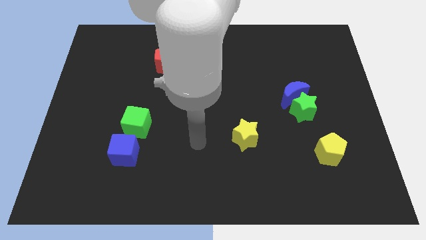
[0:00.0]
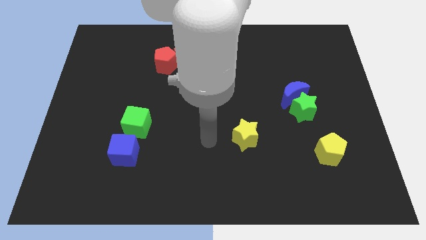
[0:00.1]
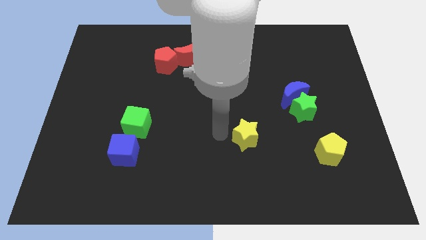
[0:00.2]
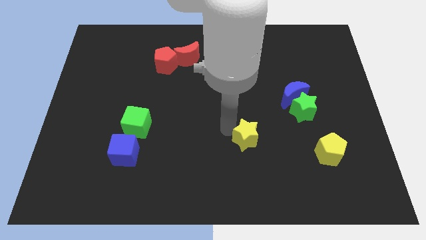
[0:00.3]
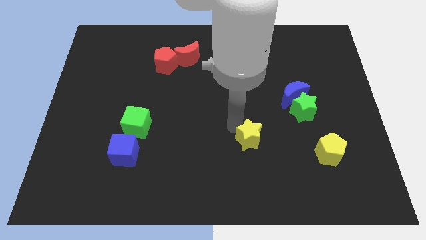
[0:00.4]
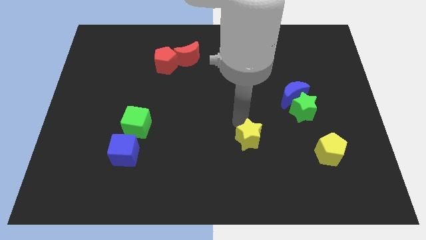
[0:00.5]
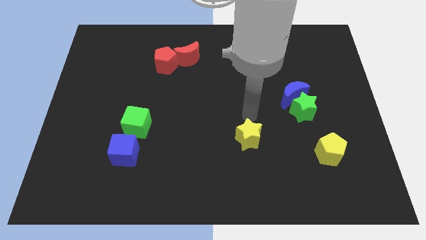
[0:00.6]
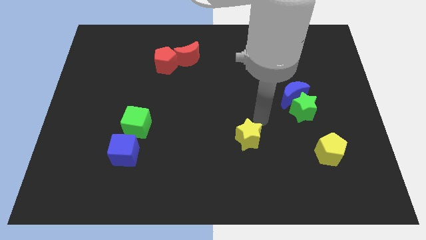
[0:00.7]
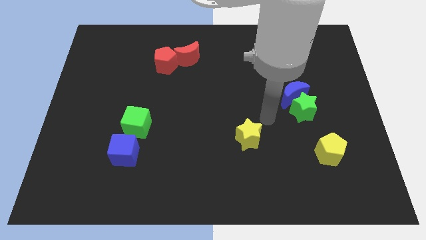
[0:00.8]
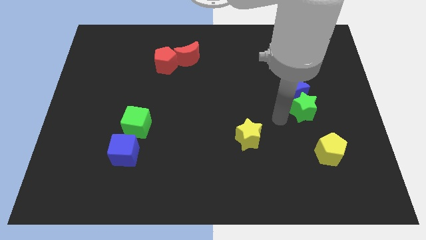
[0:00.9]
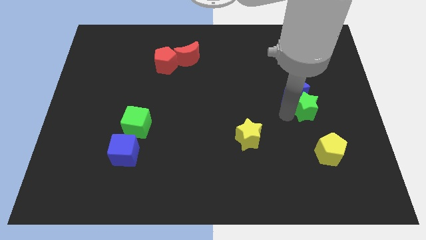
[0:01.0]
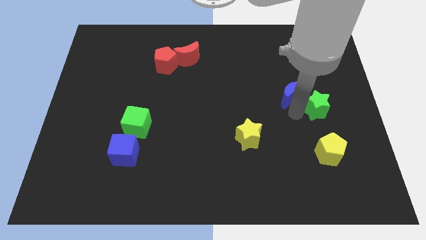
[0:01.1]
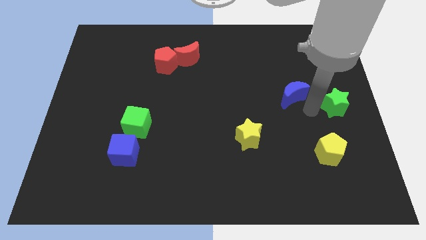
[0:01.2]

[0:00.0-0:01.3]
separate the blue moon from the green star

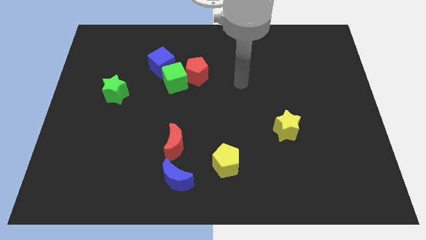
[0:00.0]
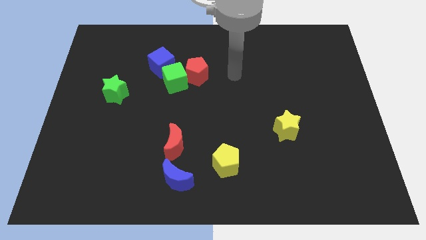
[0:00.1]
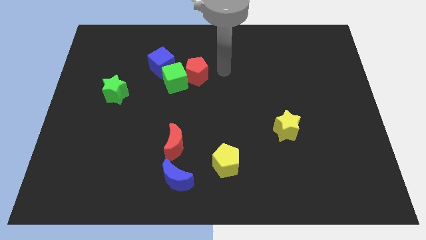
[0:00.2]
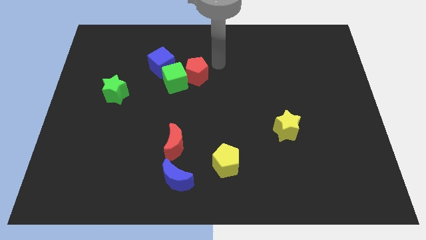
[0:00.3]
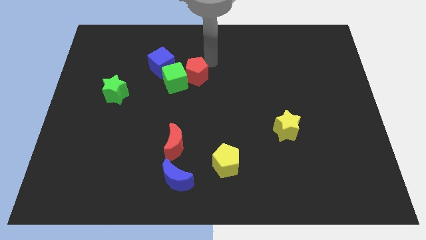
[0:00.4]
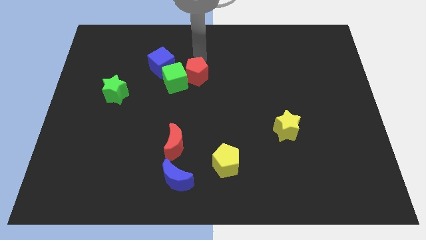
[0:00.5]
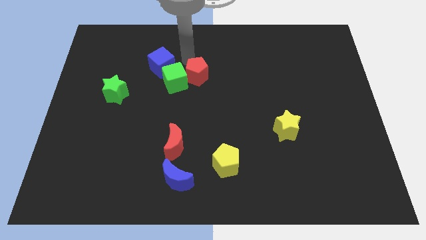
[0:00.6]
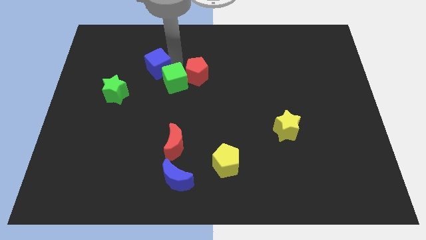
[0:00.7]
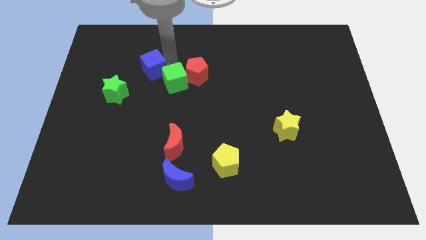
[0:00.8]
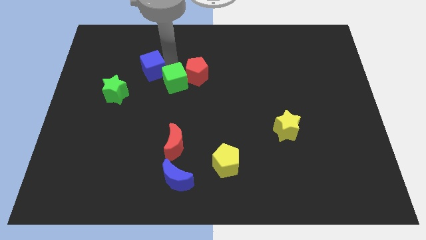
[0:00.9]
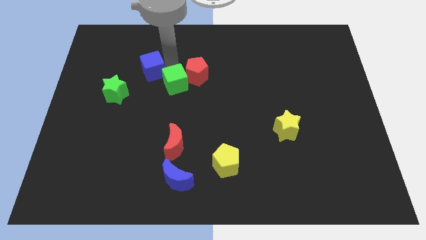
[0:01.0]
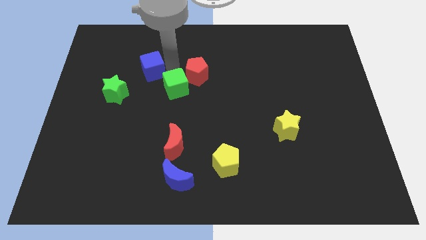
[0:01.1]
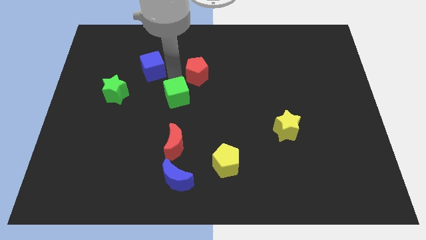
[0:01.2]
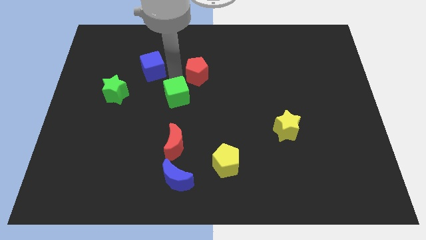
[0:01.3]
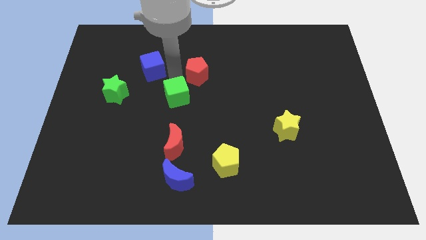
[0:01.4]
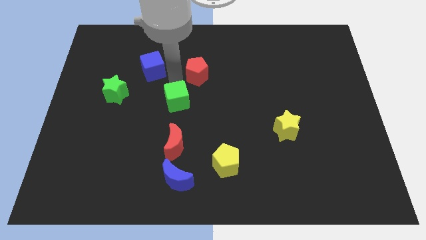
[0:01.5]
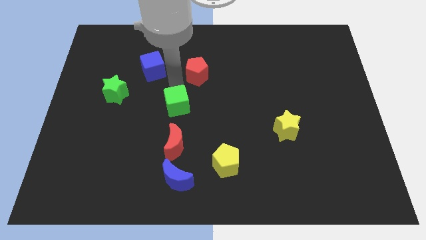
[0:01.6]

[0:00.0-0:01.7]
separate the green cube from the red pentagon and blue cube

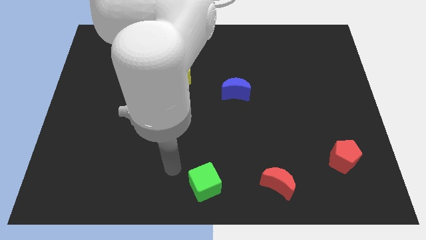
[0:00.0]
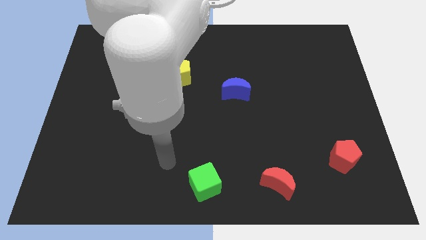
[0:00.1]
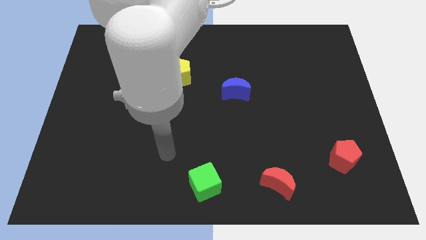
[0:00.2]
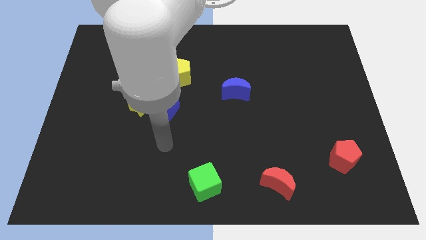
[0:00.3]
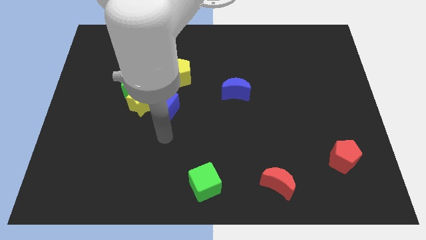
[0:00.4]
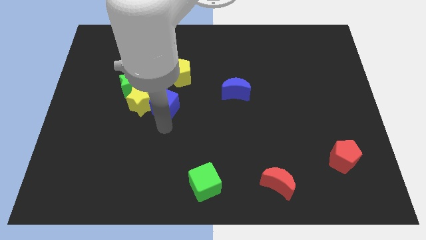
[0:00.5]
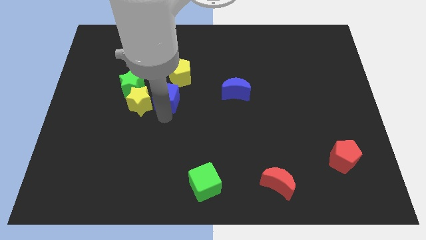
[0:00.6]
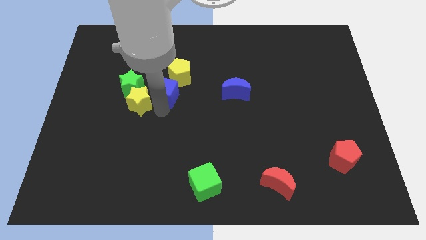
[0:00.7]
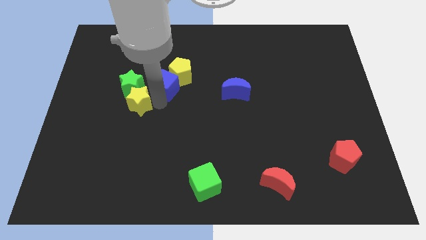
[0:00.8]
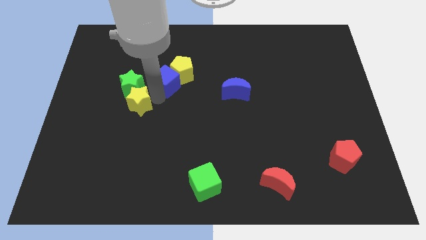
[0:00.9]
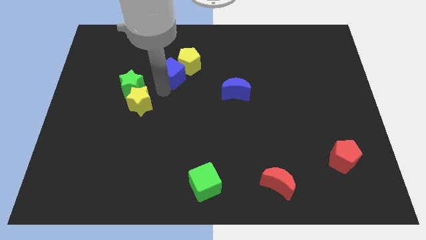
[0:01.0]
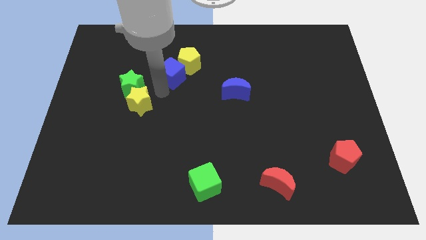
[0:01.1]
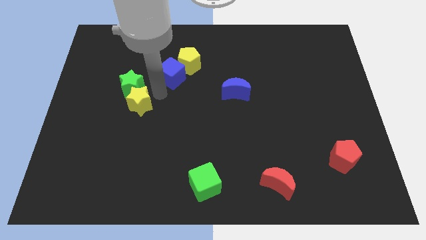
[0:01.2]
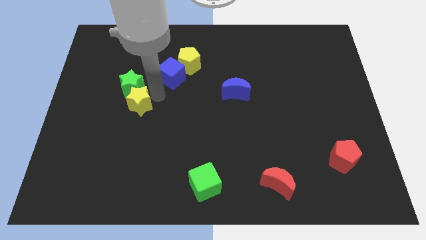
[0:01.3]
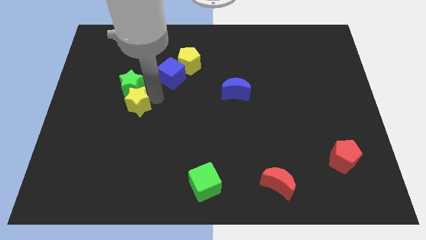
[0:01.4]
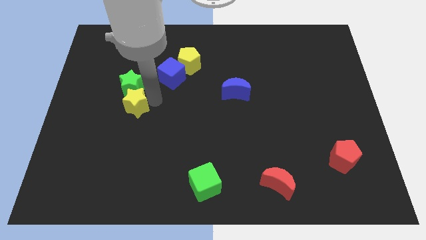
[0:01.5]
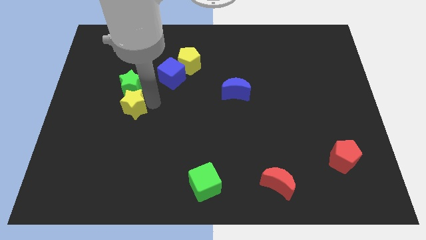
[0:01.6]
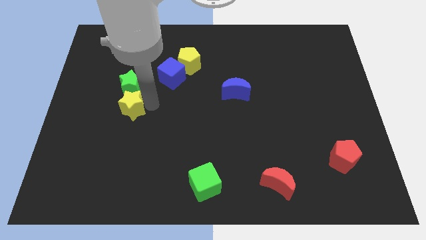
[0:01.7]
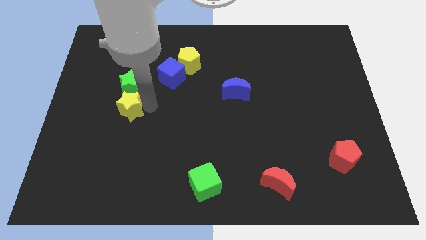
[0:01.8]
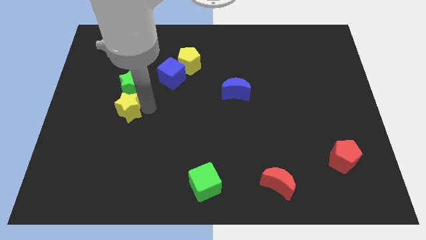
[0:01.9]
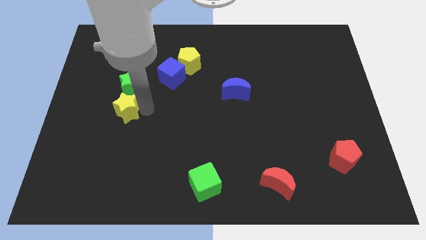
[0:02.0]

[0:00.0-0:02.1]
separate the yellow star from the green star and blue cube

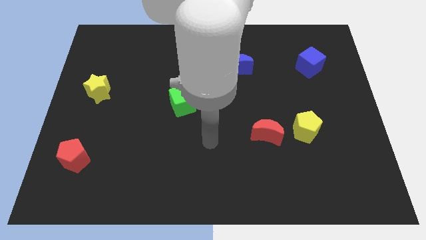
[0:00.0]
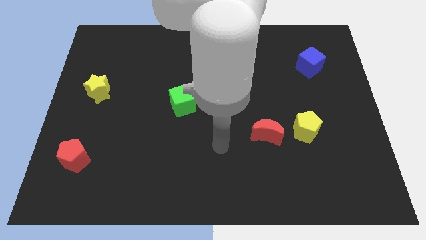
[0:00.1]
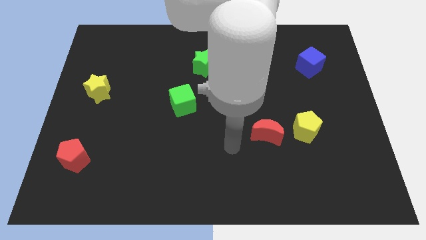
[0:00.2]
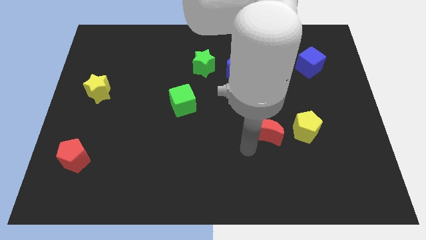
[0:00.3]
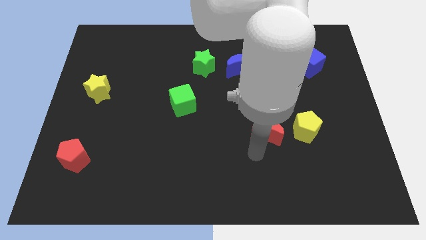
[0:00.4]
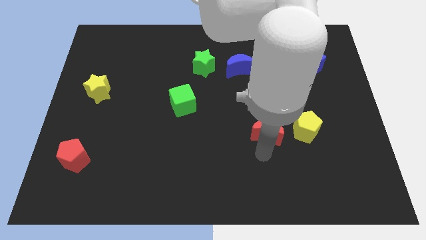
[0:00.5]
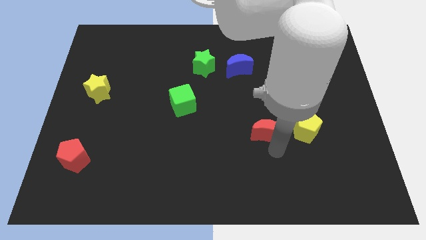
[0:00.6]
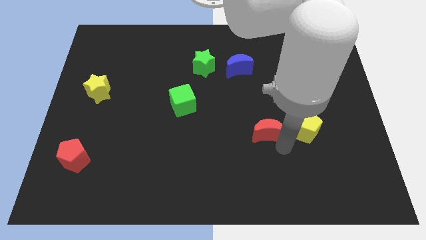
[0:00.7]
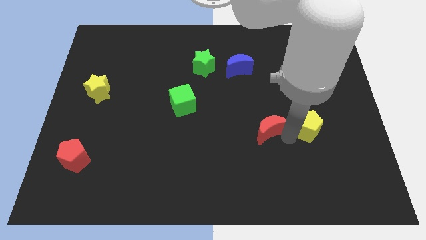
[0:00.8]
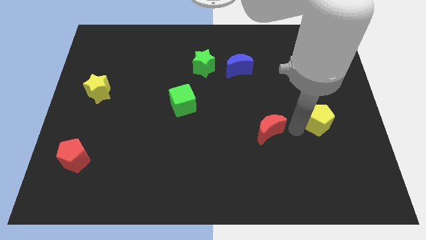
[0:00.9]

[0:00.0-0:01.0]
move the red moon away from the yellow pentagon

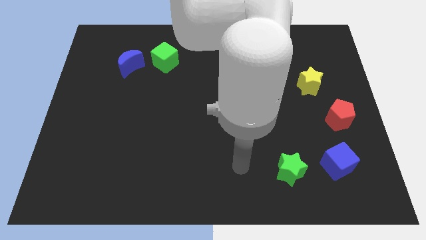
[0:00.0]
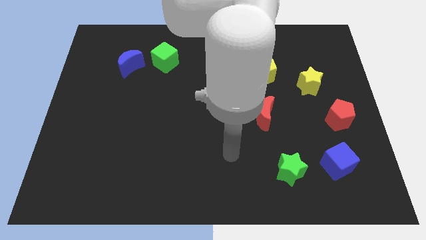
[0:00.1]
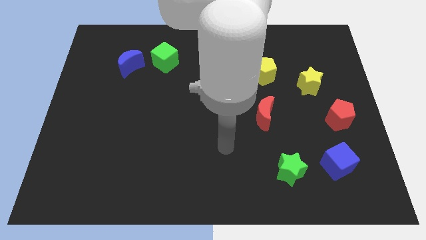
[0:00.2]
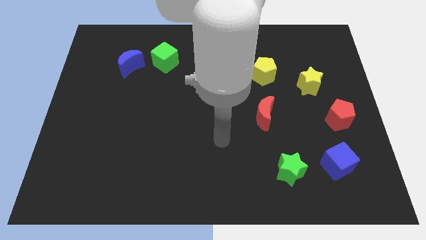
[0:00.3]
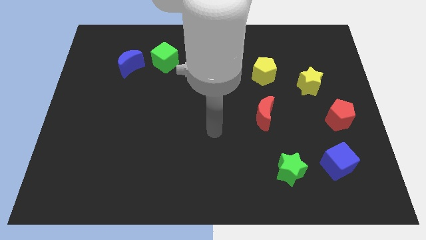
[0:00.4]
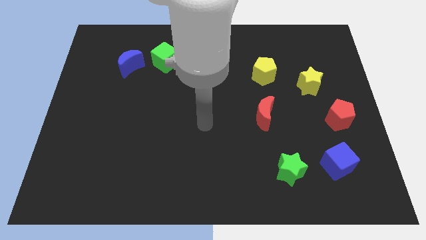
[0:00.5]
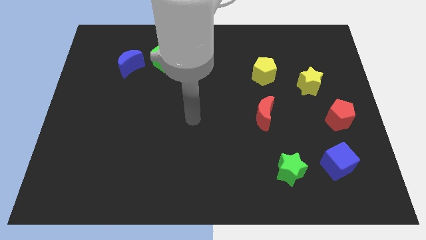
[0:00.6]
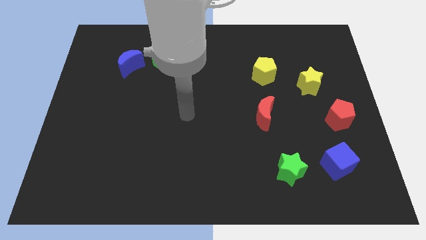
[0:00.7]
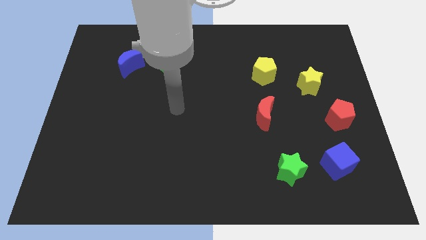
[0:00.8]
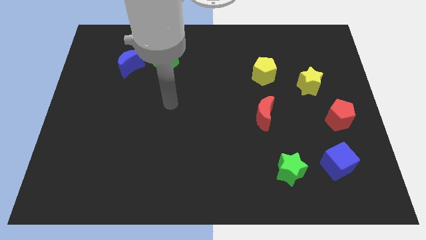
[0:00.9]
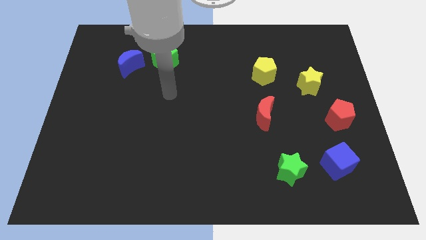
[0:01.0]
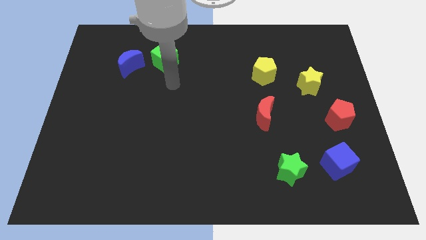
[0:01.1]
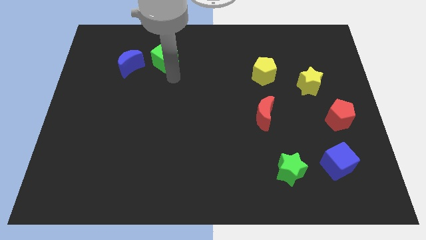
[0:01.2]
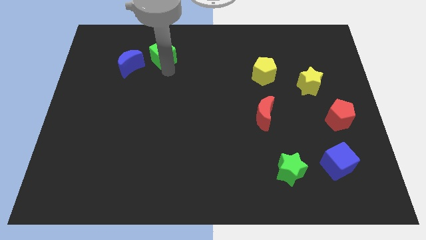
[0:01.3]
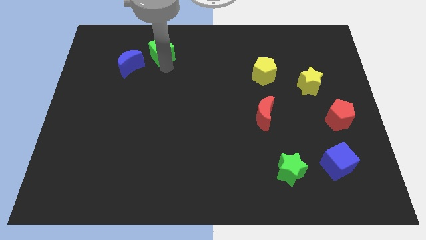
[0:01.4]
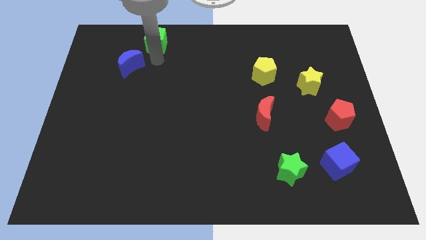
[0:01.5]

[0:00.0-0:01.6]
move the blue moon away from the green cube

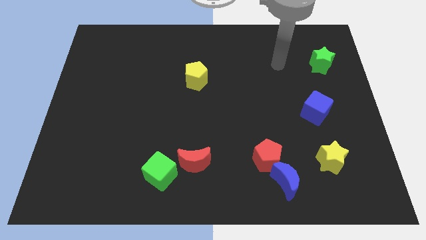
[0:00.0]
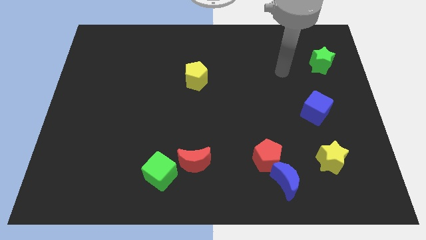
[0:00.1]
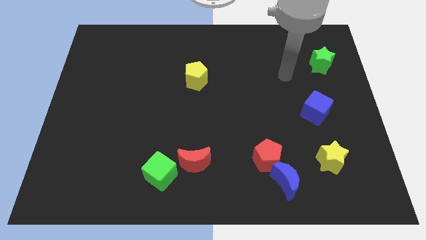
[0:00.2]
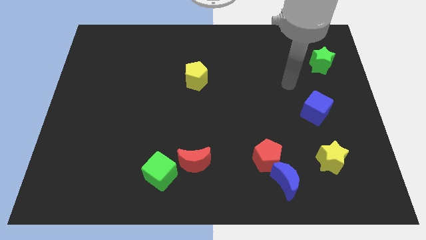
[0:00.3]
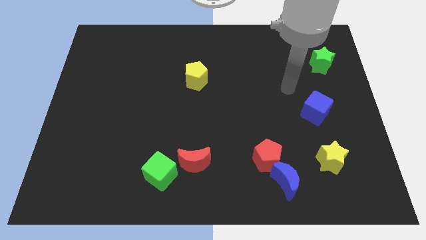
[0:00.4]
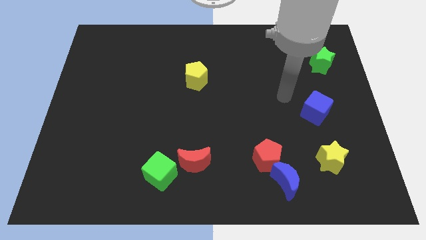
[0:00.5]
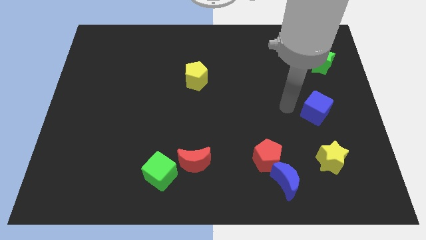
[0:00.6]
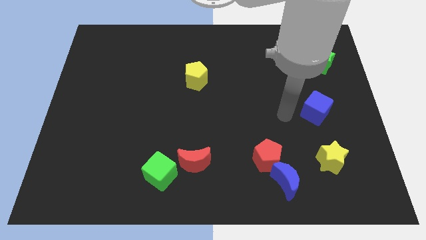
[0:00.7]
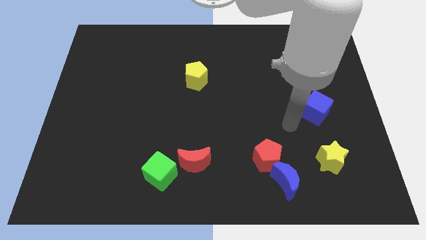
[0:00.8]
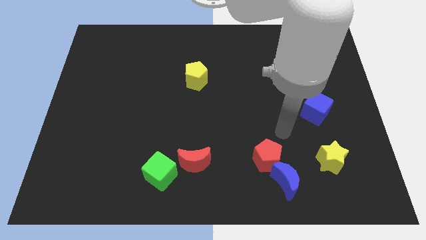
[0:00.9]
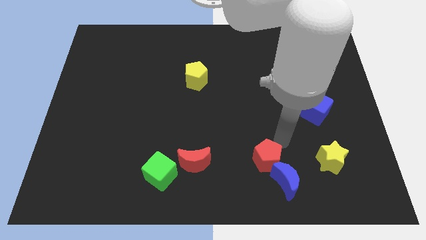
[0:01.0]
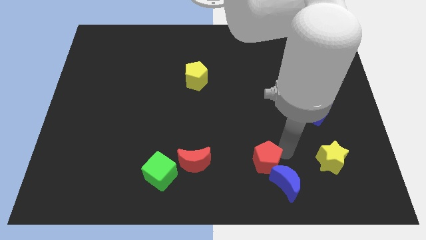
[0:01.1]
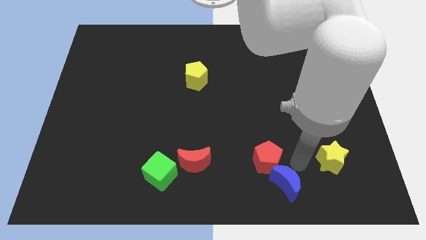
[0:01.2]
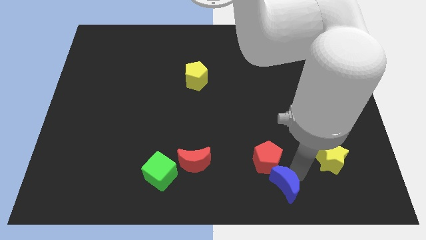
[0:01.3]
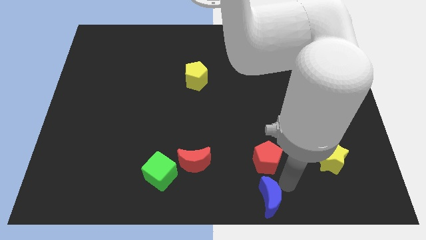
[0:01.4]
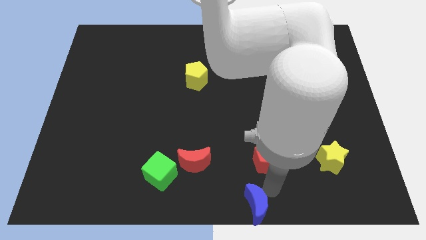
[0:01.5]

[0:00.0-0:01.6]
separate the red pentagon from the blue moon

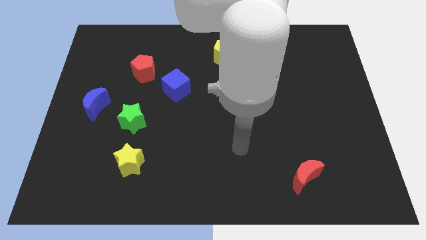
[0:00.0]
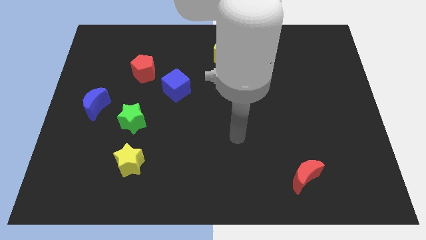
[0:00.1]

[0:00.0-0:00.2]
separate the green cube from the yellow pentagon
